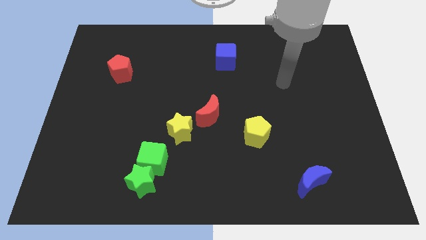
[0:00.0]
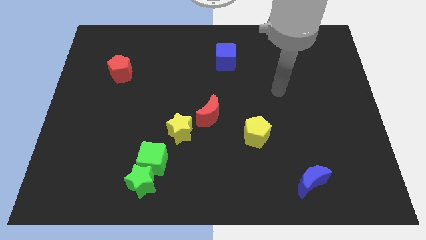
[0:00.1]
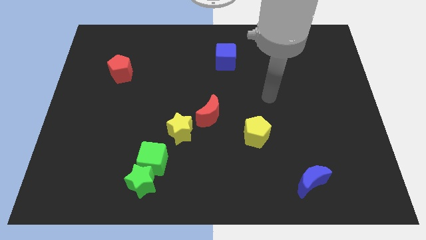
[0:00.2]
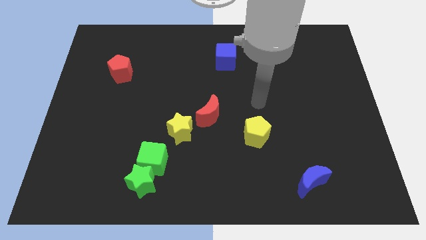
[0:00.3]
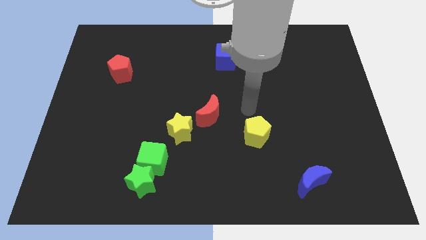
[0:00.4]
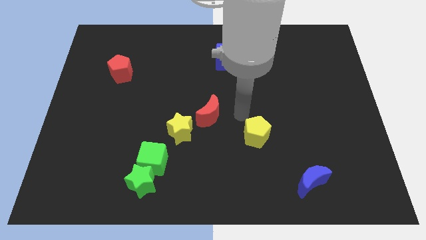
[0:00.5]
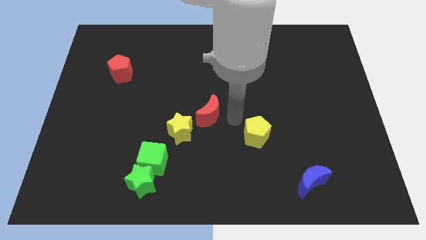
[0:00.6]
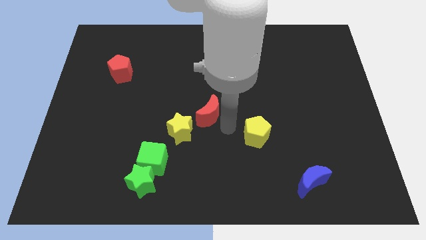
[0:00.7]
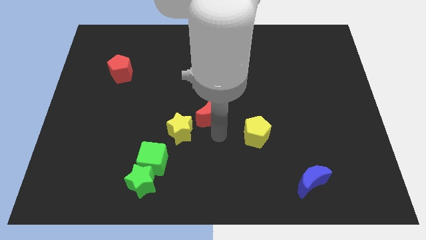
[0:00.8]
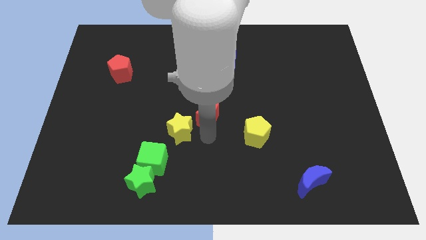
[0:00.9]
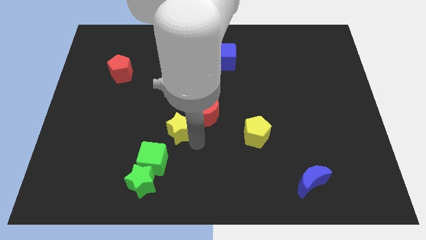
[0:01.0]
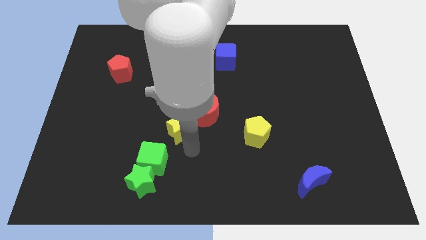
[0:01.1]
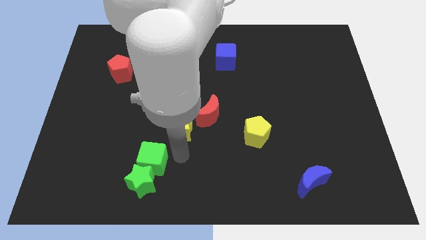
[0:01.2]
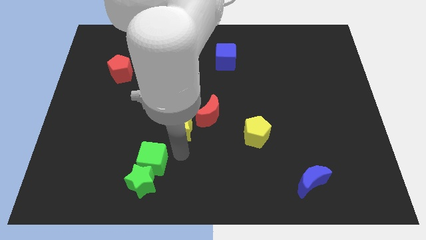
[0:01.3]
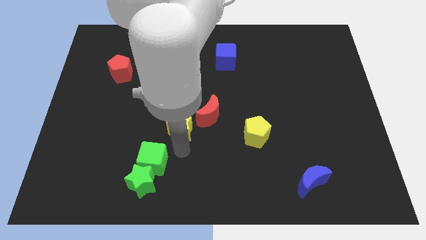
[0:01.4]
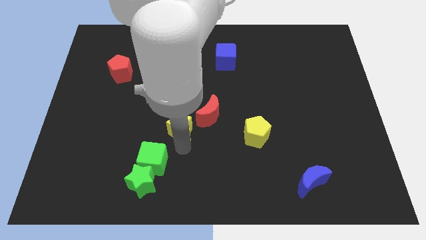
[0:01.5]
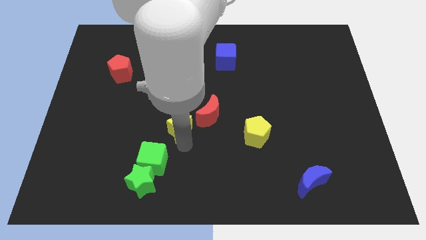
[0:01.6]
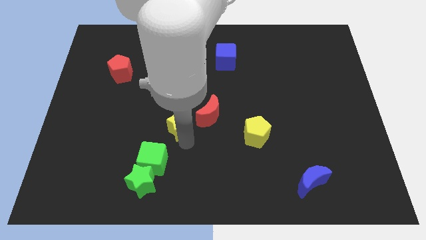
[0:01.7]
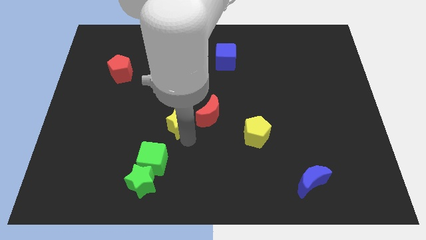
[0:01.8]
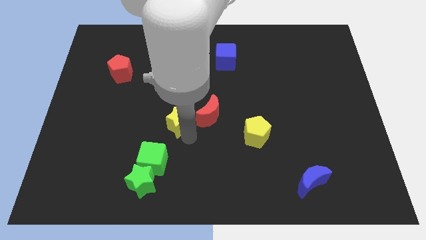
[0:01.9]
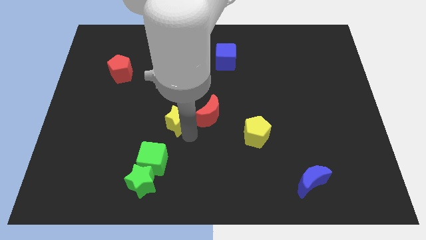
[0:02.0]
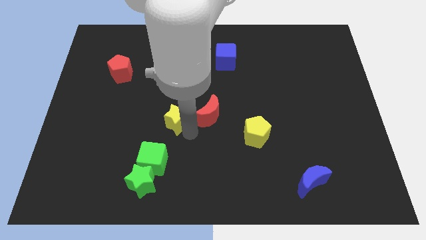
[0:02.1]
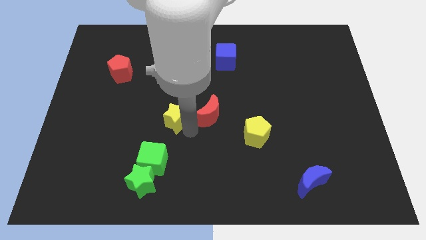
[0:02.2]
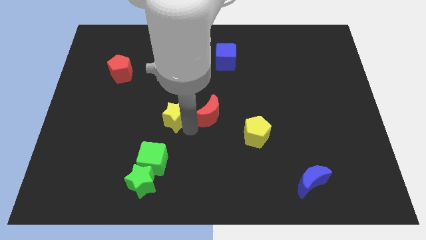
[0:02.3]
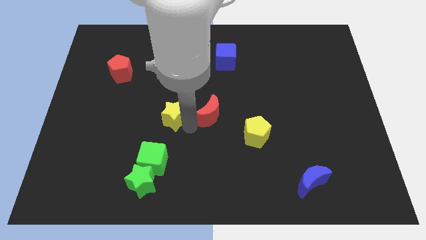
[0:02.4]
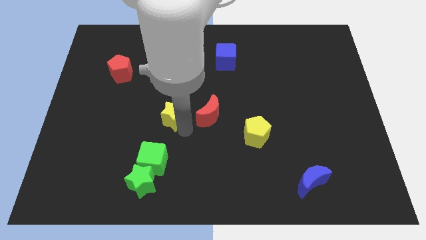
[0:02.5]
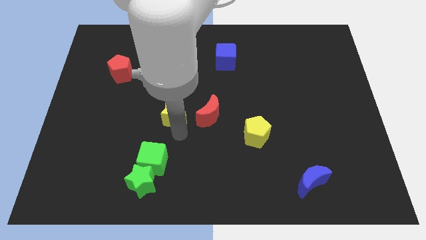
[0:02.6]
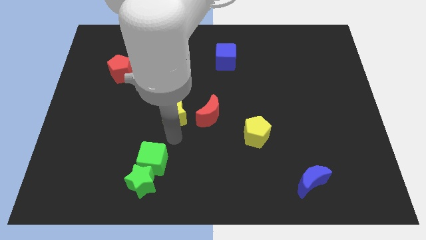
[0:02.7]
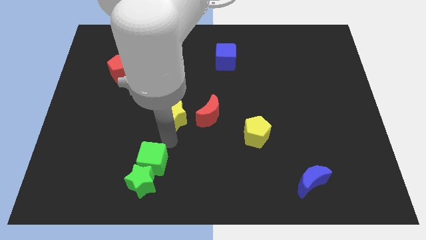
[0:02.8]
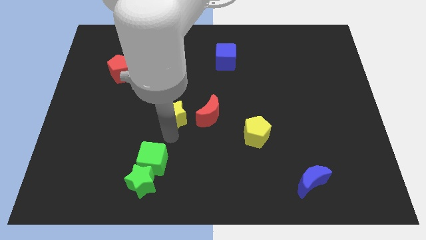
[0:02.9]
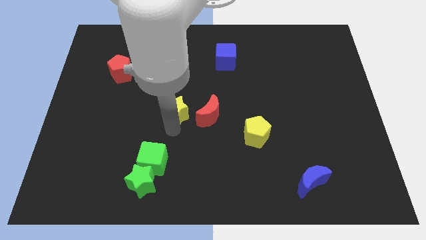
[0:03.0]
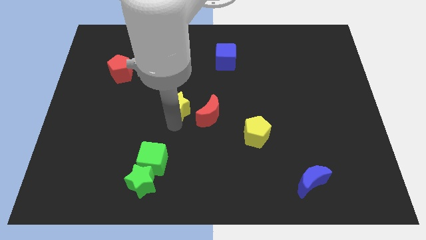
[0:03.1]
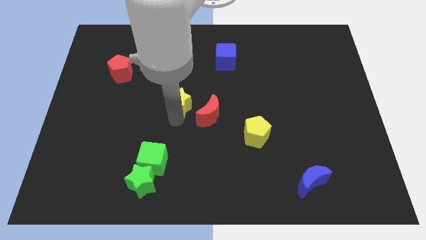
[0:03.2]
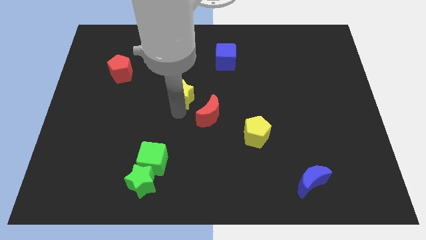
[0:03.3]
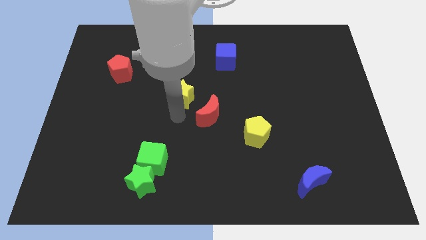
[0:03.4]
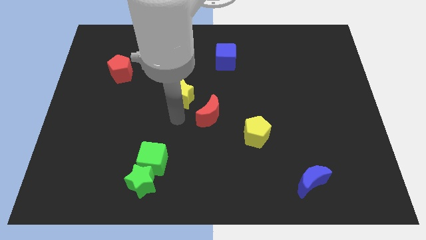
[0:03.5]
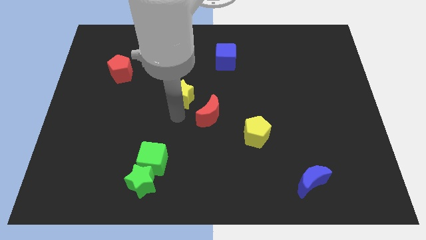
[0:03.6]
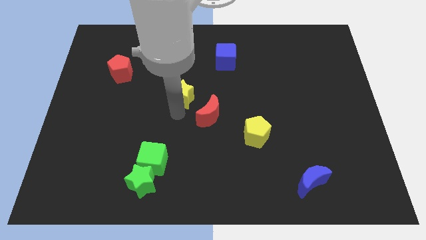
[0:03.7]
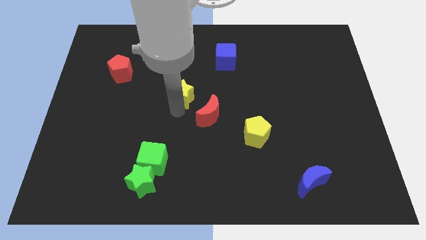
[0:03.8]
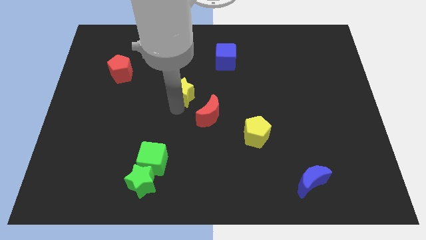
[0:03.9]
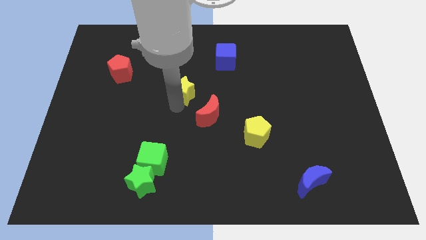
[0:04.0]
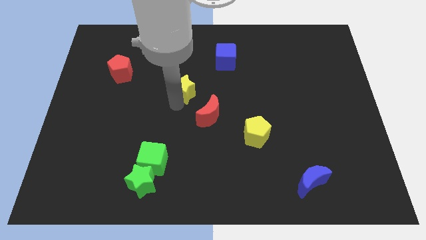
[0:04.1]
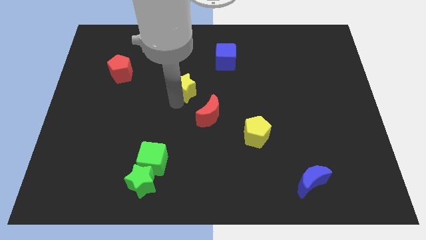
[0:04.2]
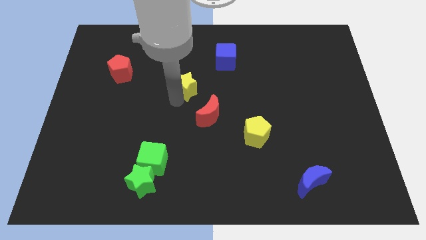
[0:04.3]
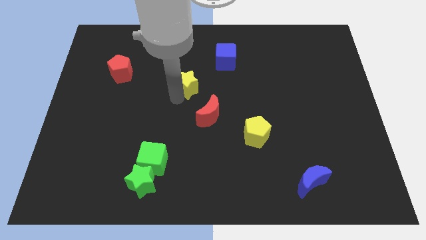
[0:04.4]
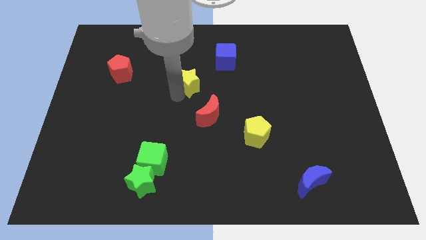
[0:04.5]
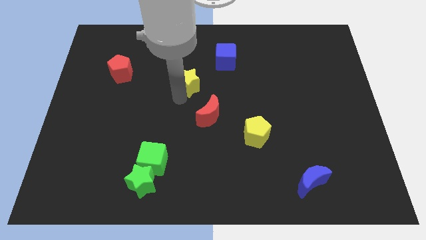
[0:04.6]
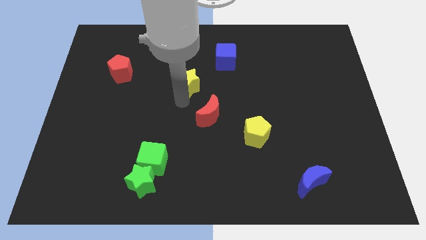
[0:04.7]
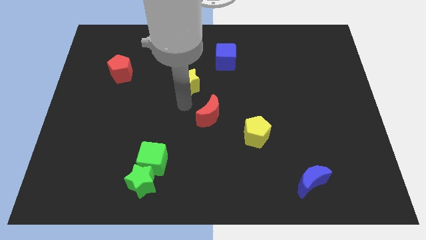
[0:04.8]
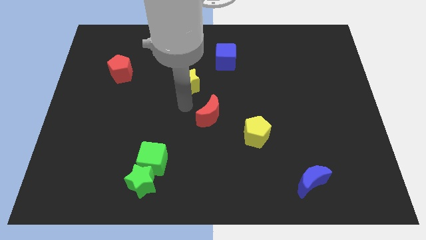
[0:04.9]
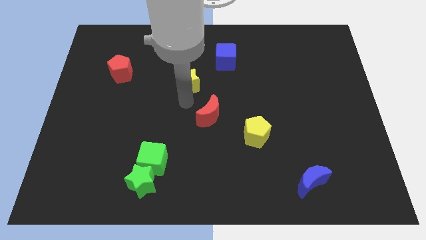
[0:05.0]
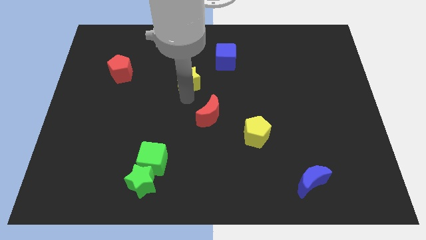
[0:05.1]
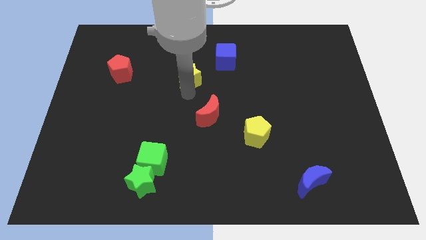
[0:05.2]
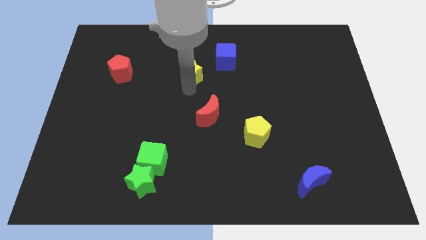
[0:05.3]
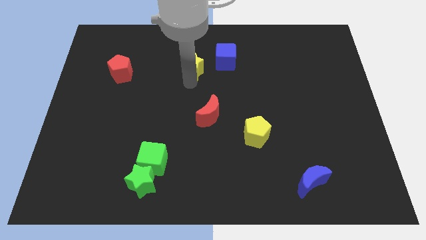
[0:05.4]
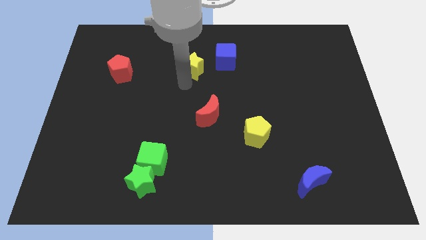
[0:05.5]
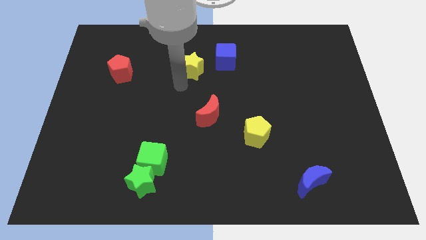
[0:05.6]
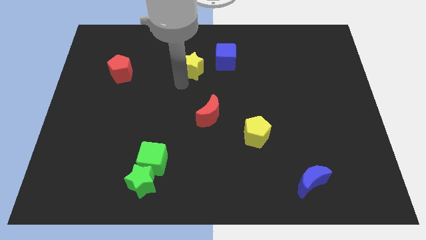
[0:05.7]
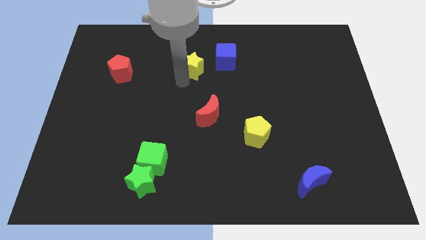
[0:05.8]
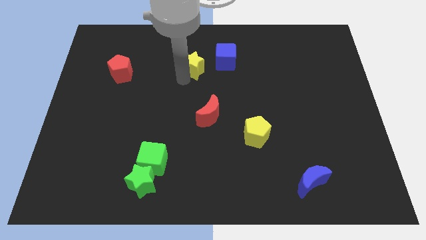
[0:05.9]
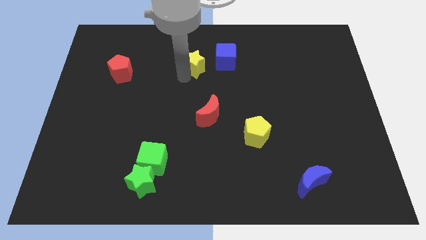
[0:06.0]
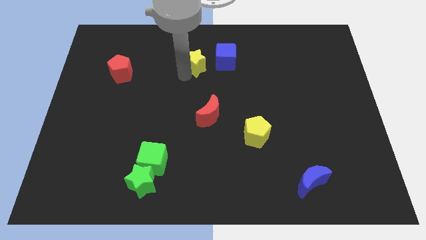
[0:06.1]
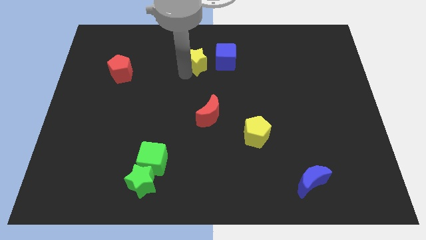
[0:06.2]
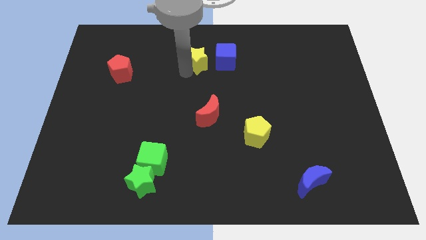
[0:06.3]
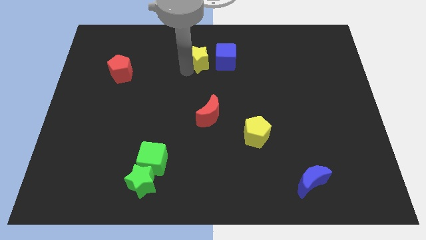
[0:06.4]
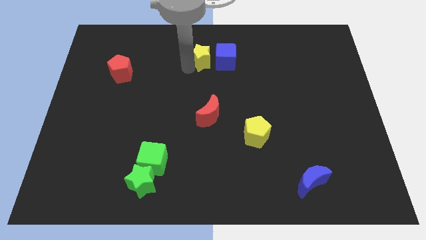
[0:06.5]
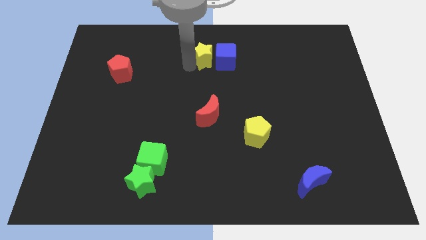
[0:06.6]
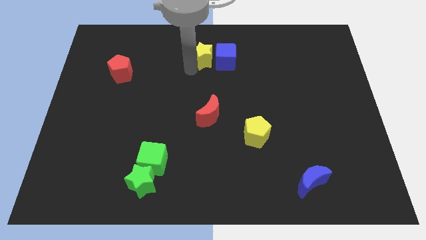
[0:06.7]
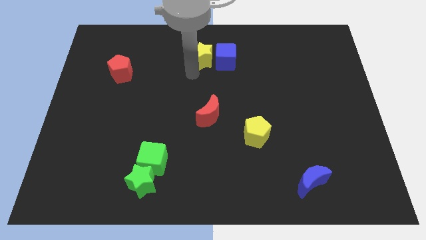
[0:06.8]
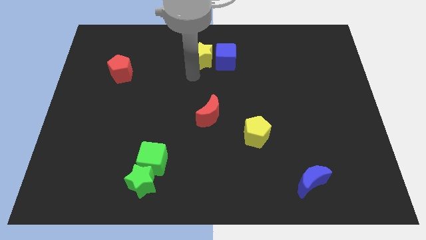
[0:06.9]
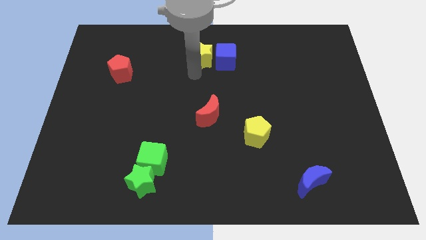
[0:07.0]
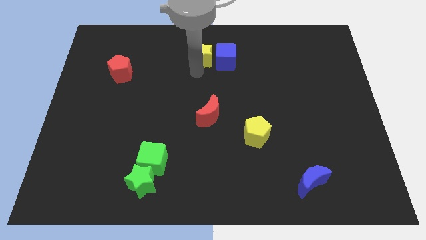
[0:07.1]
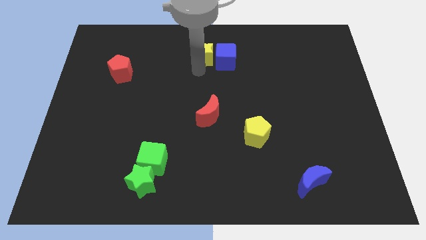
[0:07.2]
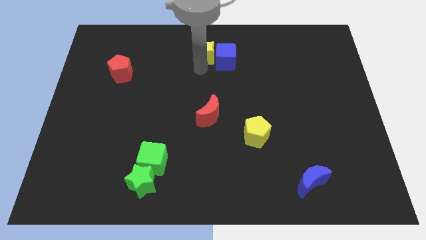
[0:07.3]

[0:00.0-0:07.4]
slide the yellow star to the towards your base

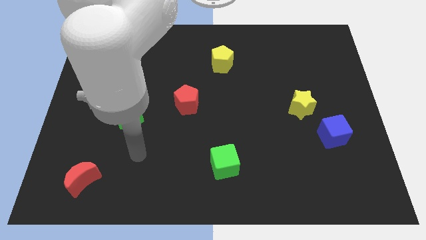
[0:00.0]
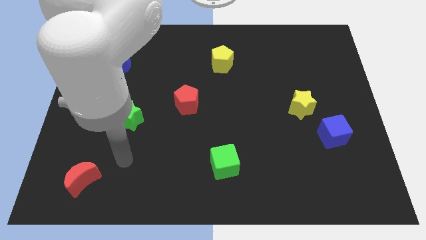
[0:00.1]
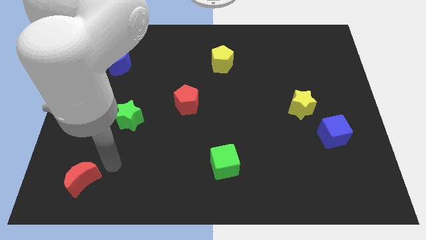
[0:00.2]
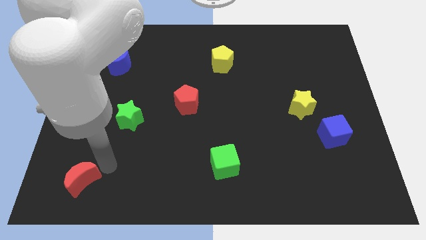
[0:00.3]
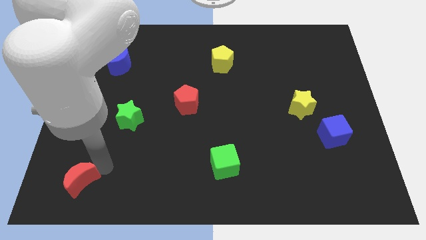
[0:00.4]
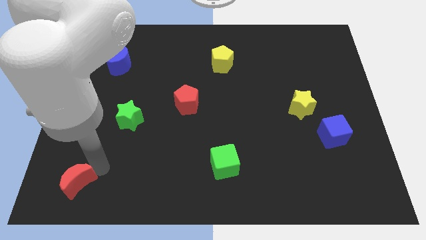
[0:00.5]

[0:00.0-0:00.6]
slide the red moon to the bottom left of the board
